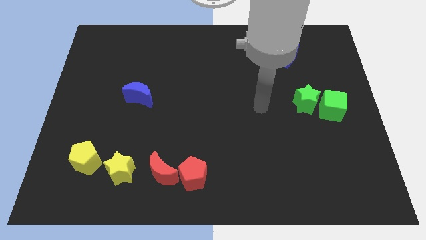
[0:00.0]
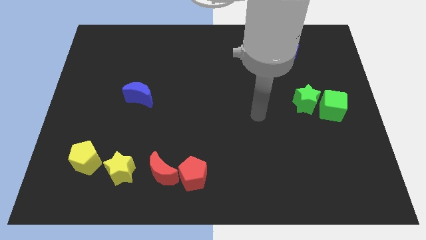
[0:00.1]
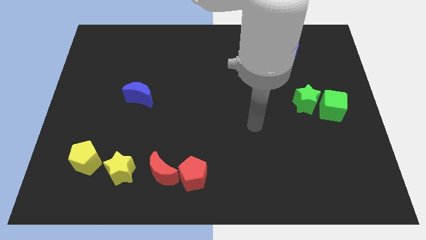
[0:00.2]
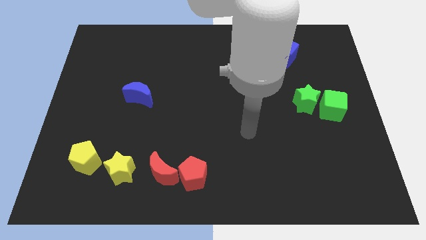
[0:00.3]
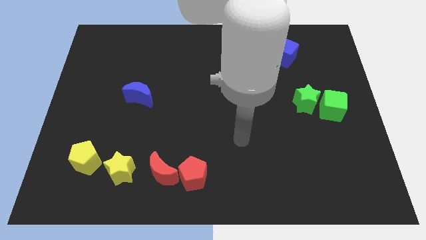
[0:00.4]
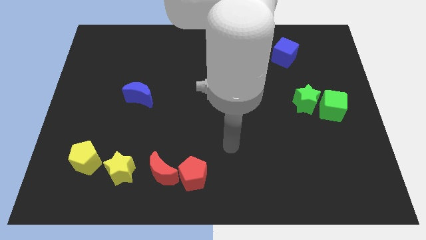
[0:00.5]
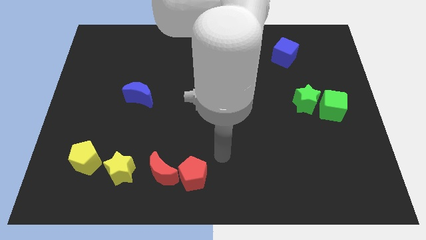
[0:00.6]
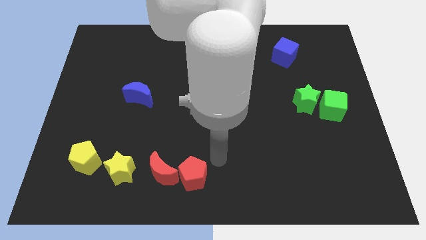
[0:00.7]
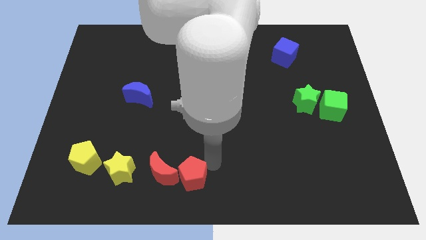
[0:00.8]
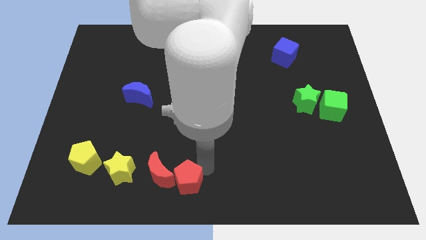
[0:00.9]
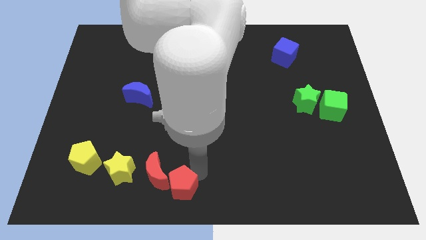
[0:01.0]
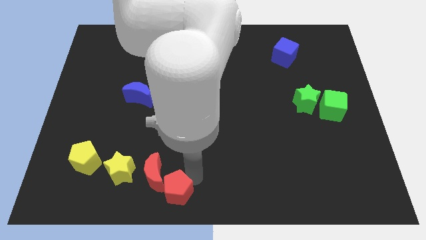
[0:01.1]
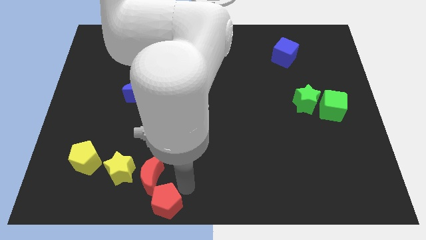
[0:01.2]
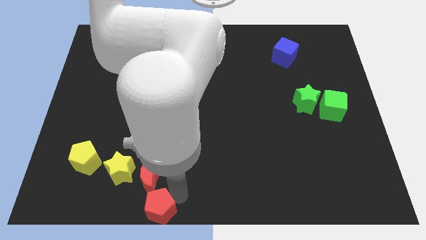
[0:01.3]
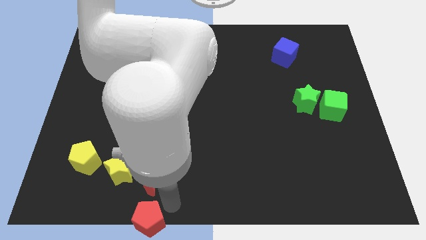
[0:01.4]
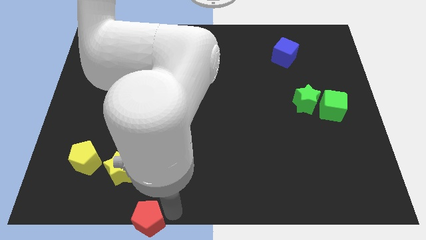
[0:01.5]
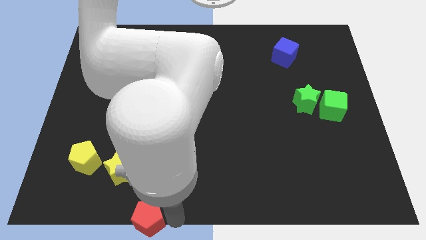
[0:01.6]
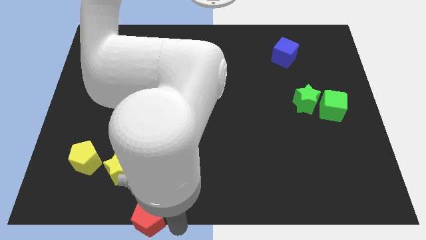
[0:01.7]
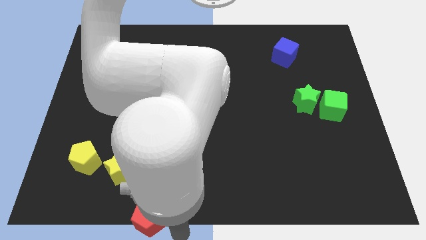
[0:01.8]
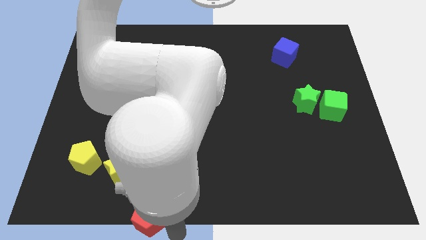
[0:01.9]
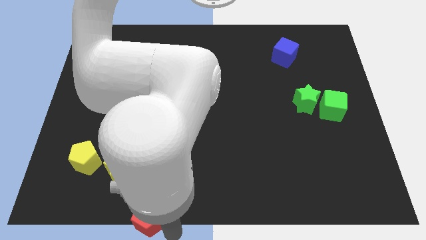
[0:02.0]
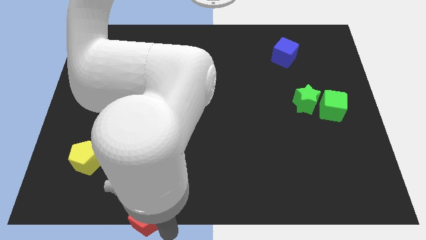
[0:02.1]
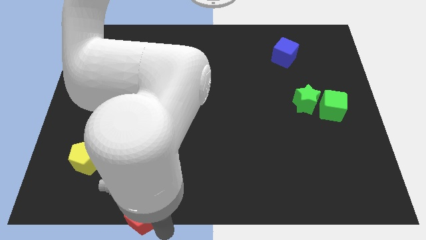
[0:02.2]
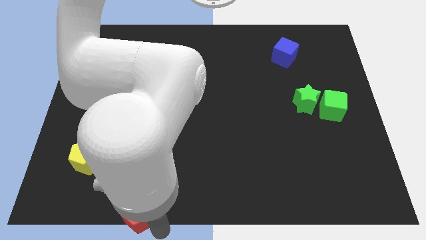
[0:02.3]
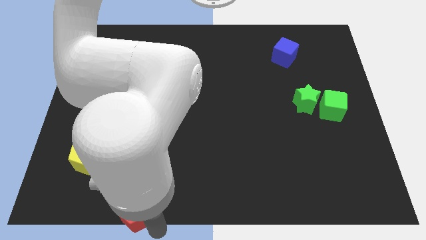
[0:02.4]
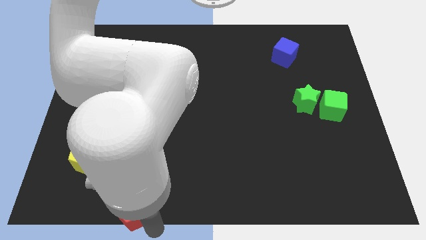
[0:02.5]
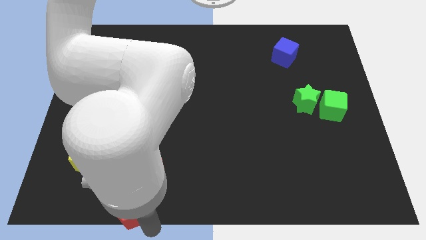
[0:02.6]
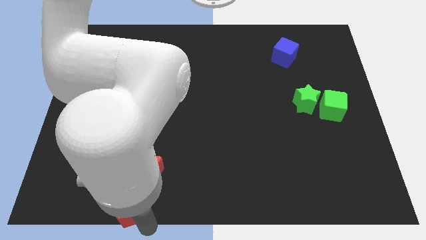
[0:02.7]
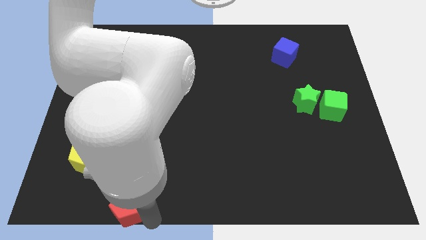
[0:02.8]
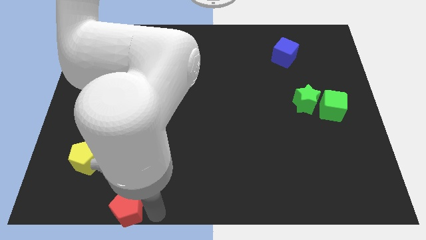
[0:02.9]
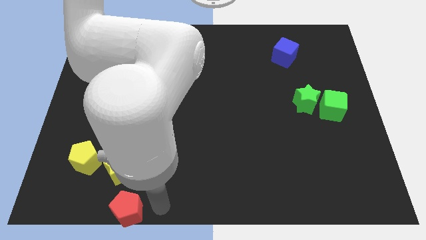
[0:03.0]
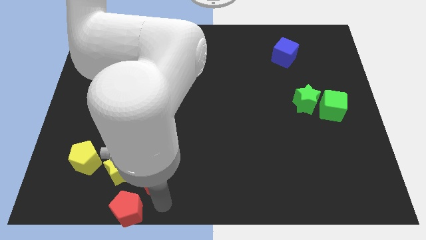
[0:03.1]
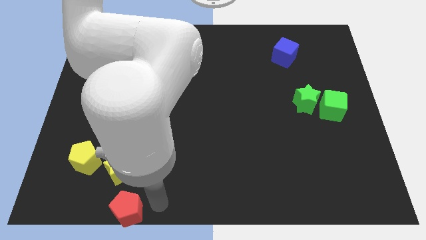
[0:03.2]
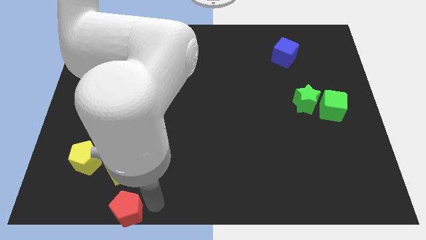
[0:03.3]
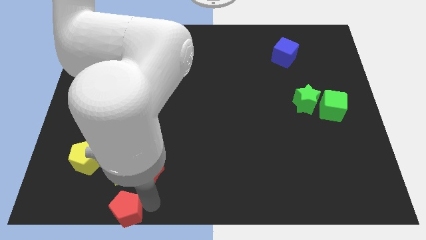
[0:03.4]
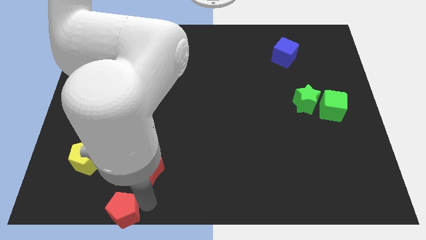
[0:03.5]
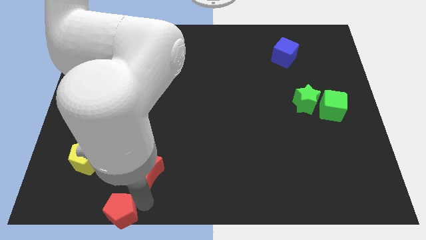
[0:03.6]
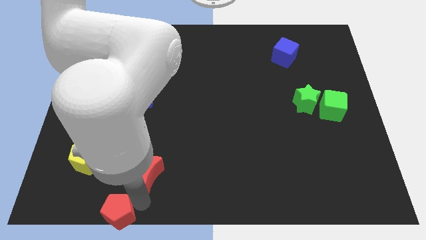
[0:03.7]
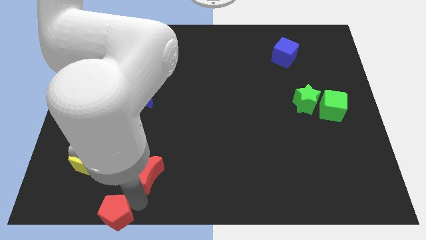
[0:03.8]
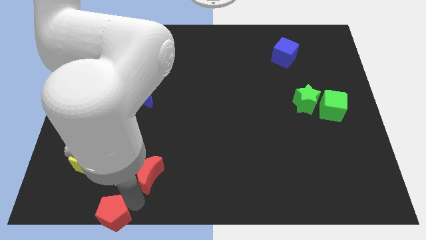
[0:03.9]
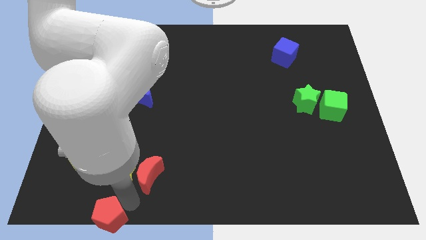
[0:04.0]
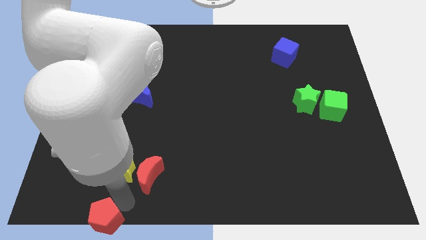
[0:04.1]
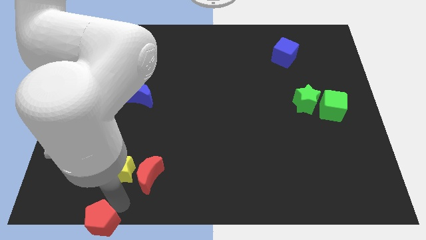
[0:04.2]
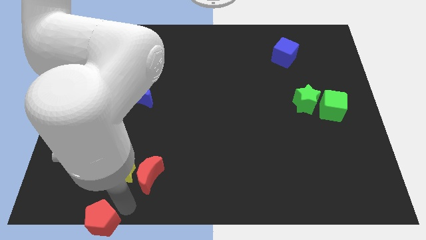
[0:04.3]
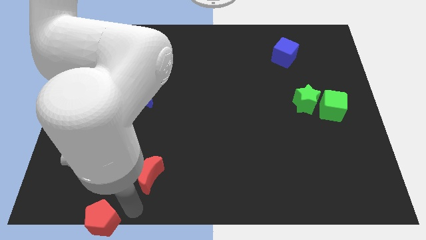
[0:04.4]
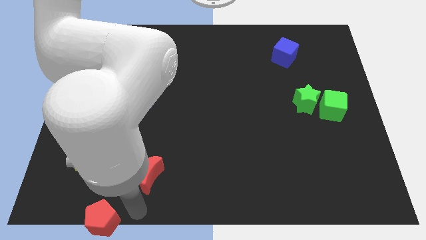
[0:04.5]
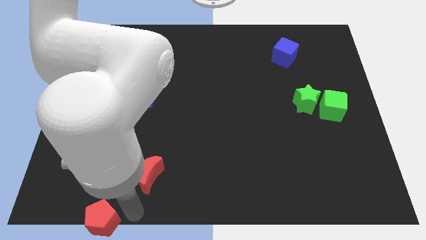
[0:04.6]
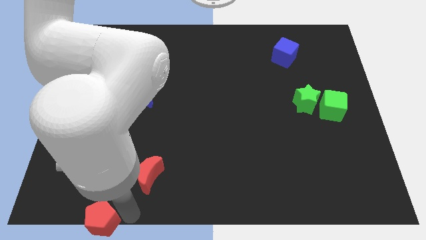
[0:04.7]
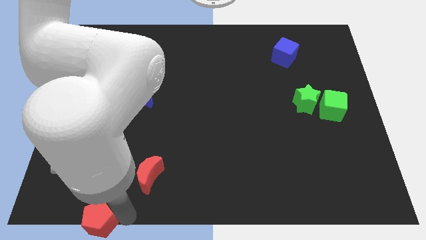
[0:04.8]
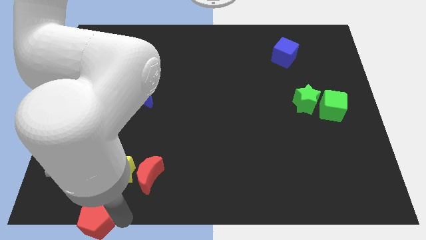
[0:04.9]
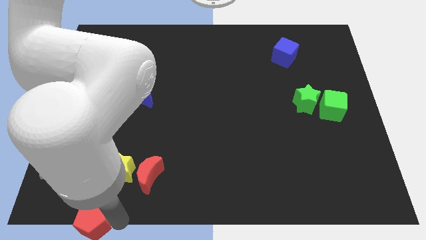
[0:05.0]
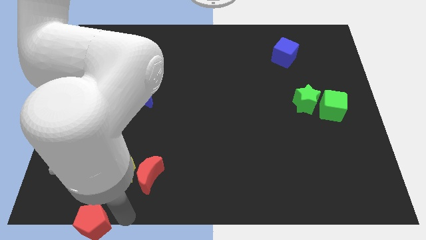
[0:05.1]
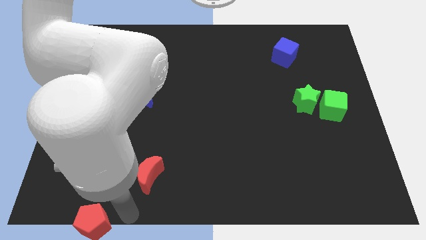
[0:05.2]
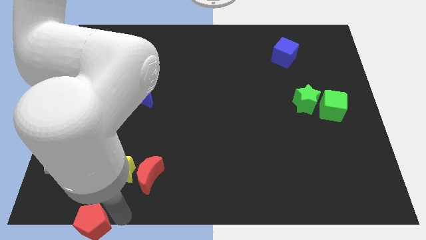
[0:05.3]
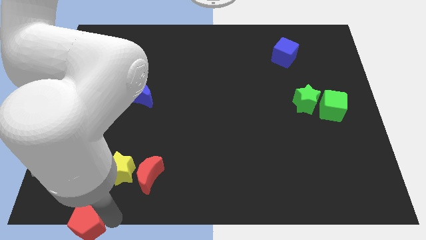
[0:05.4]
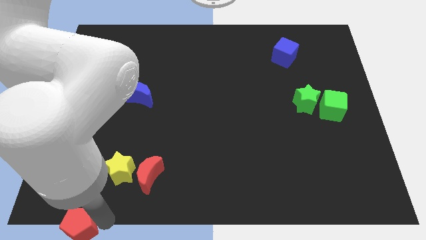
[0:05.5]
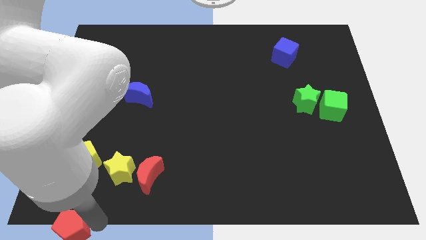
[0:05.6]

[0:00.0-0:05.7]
put the red pentagon to the bottom left

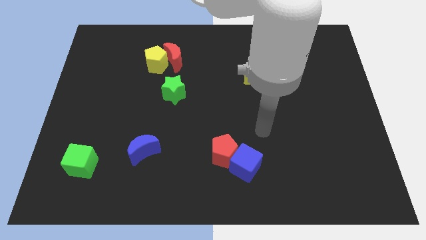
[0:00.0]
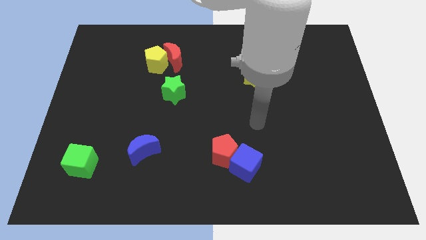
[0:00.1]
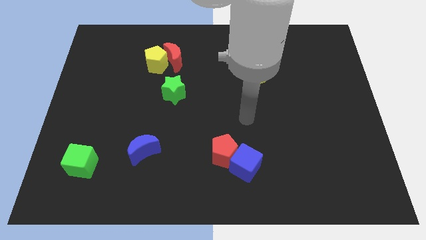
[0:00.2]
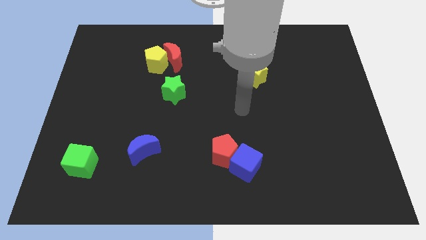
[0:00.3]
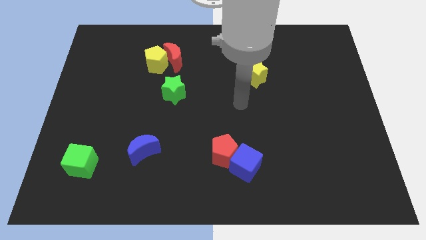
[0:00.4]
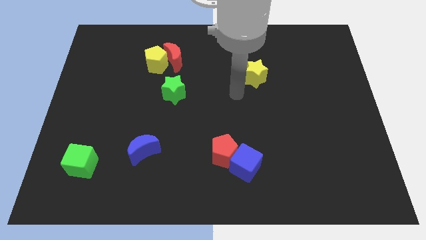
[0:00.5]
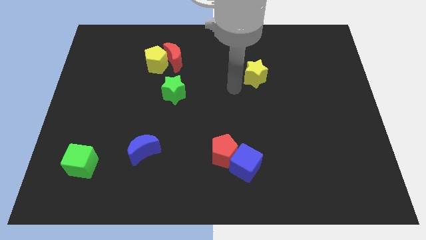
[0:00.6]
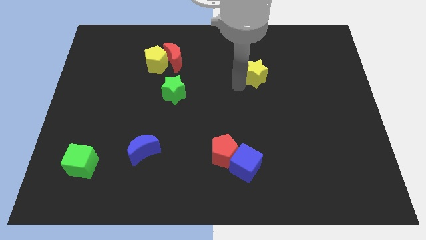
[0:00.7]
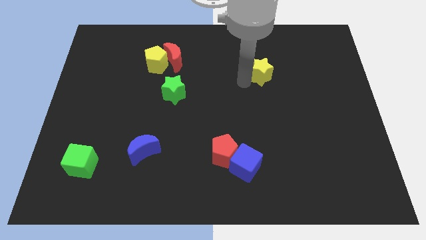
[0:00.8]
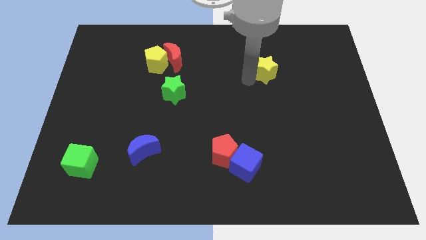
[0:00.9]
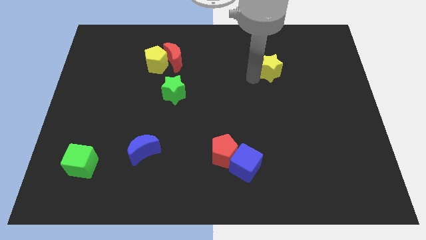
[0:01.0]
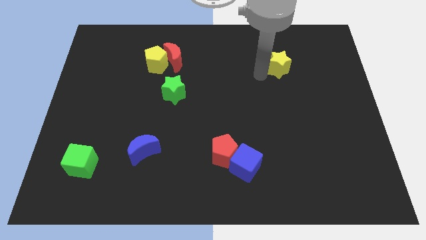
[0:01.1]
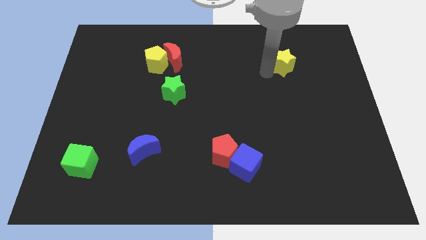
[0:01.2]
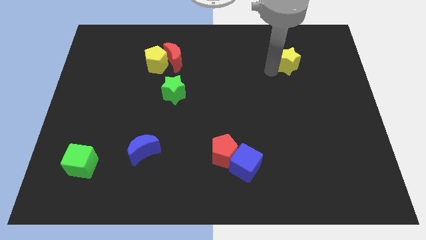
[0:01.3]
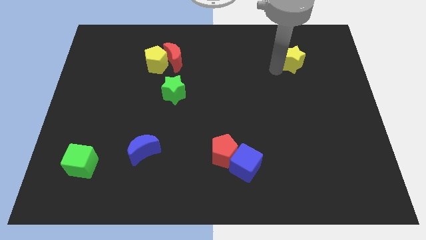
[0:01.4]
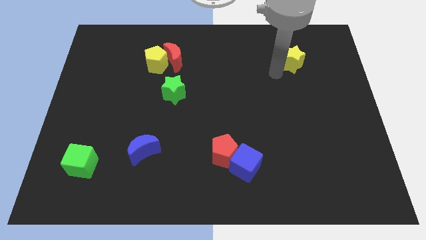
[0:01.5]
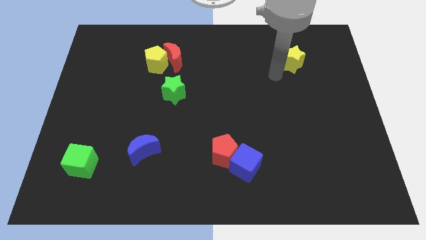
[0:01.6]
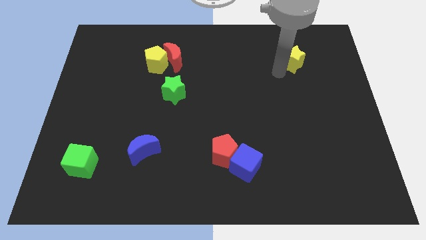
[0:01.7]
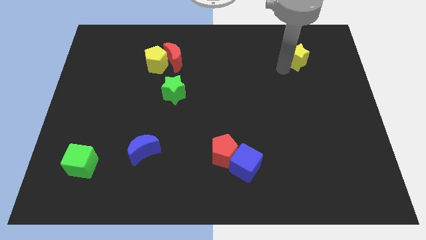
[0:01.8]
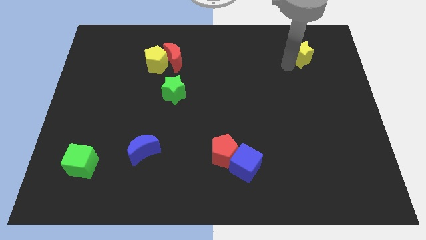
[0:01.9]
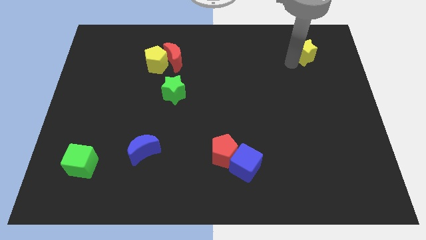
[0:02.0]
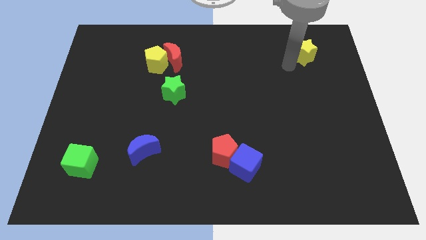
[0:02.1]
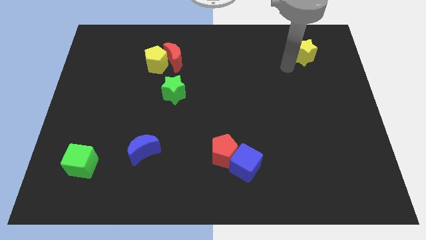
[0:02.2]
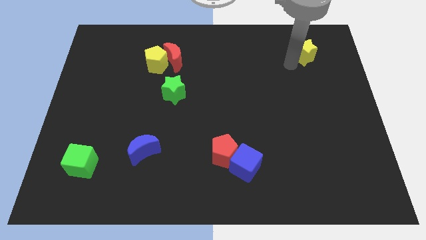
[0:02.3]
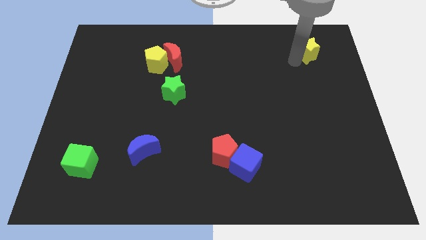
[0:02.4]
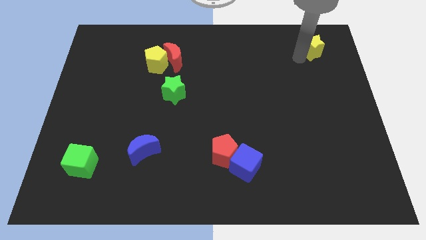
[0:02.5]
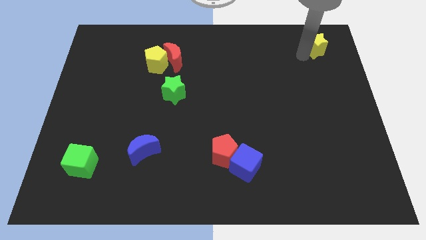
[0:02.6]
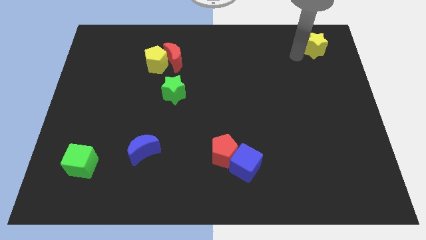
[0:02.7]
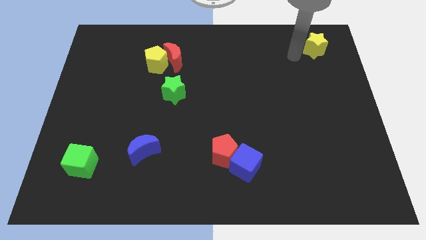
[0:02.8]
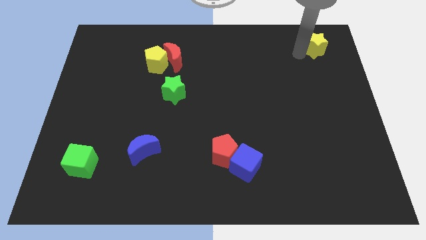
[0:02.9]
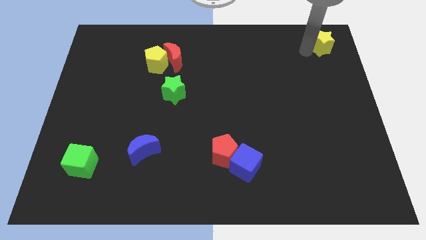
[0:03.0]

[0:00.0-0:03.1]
slide the yellow star to the top right
